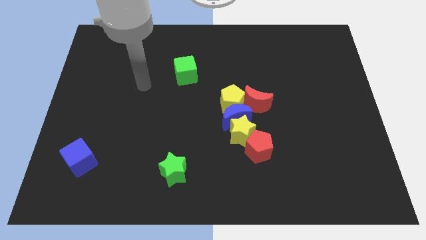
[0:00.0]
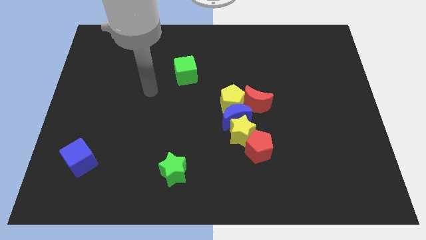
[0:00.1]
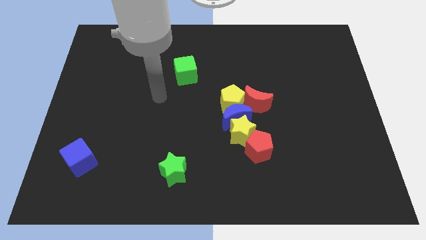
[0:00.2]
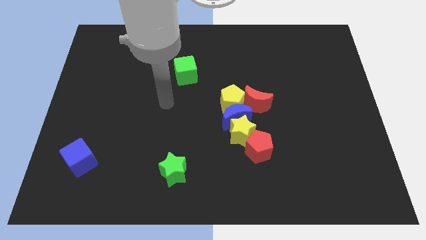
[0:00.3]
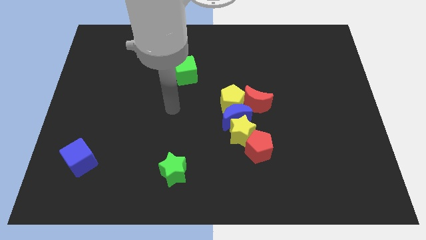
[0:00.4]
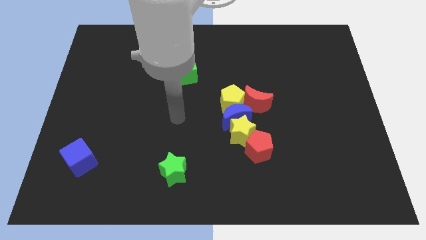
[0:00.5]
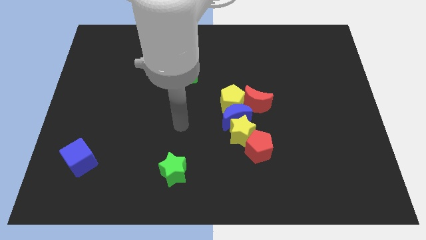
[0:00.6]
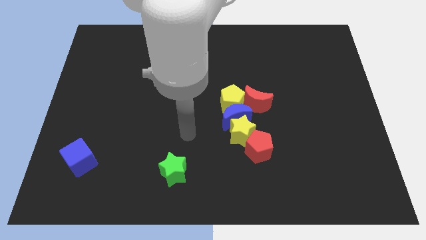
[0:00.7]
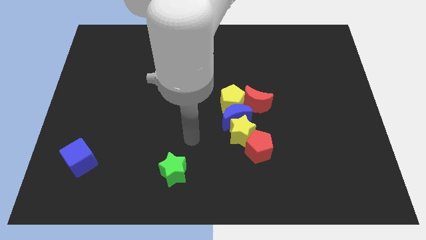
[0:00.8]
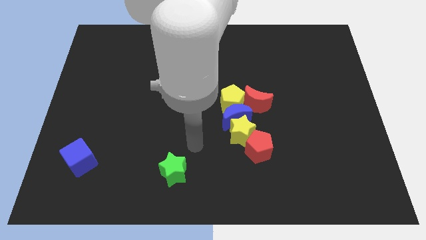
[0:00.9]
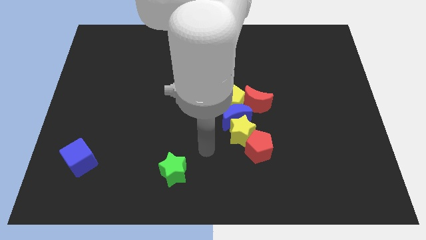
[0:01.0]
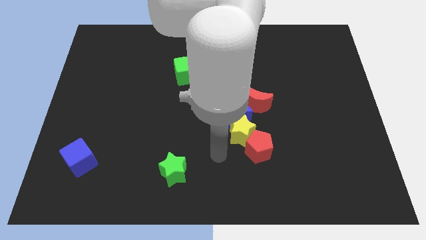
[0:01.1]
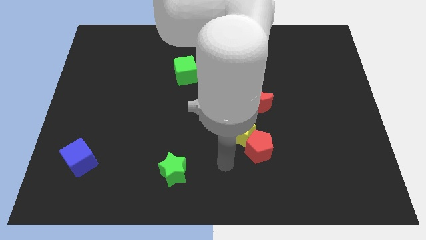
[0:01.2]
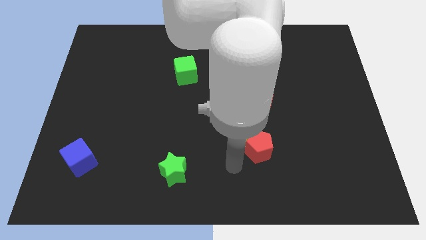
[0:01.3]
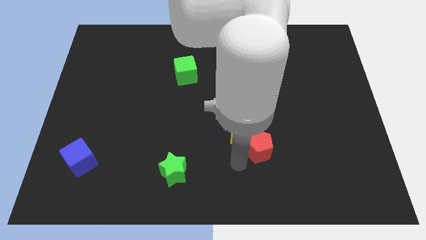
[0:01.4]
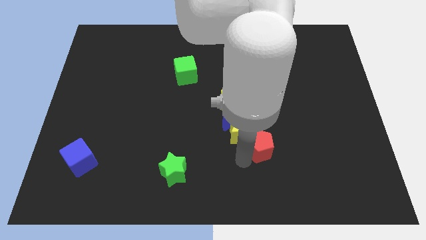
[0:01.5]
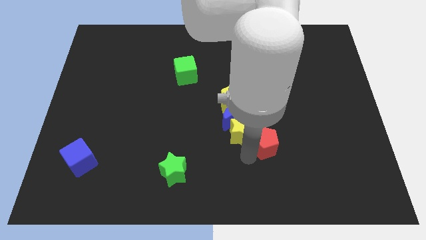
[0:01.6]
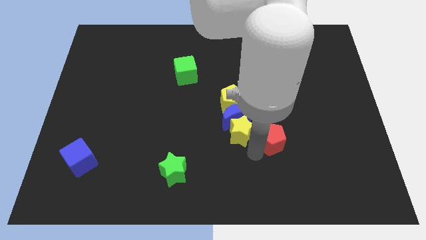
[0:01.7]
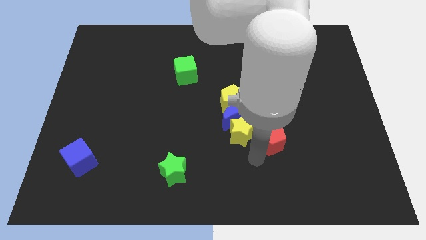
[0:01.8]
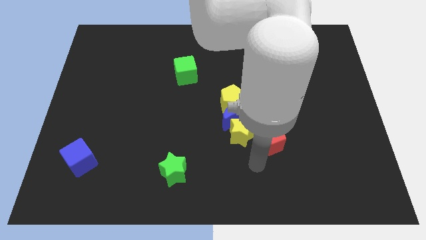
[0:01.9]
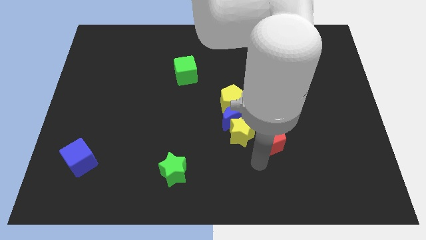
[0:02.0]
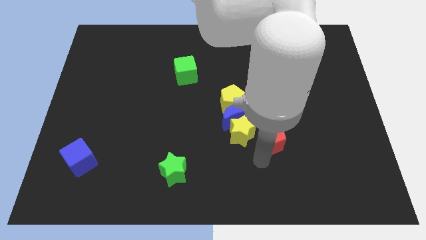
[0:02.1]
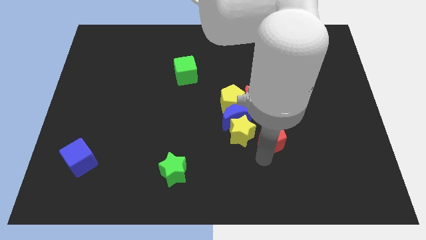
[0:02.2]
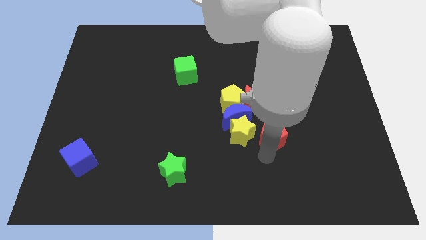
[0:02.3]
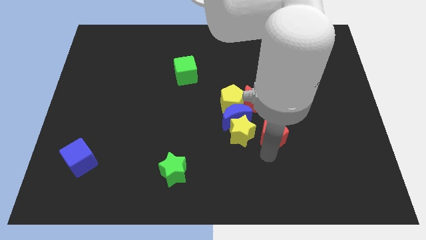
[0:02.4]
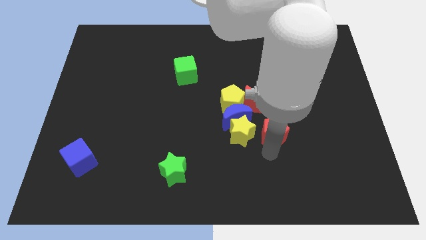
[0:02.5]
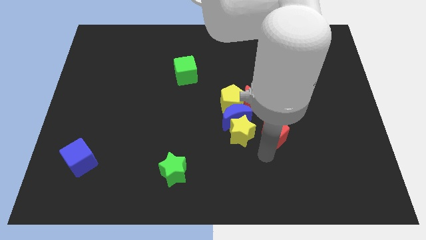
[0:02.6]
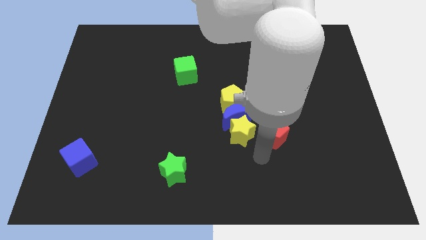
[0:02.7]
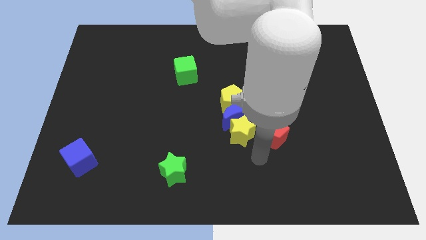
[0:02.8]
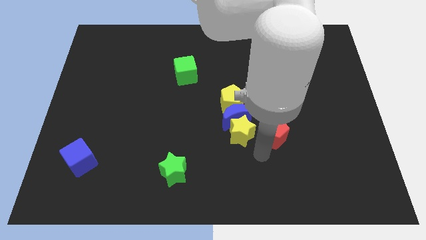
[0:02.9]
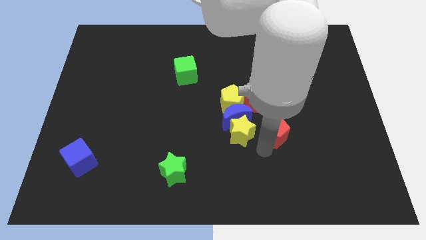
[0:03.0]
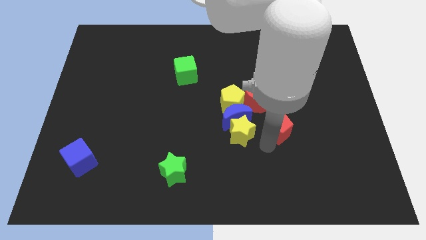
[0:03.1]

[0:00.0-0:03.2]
slide the red pentagon upwards and then to the right a bit

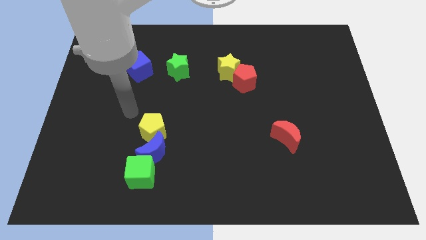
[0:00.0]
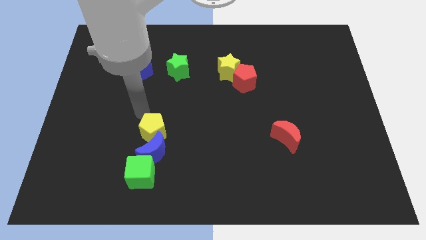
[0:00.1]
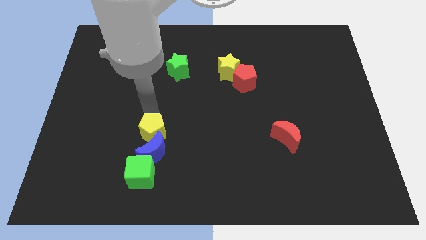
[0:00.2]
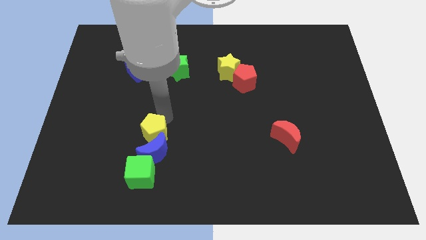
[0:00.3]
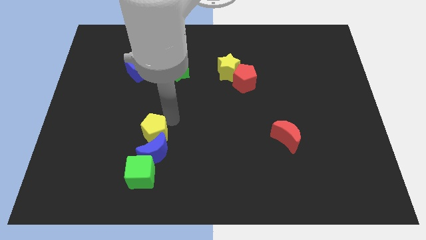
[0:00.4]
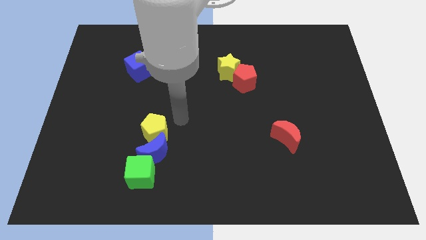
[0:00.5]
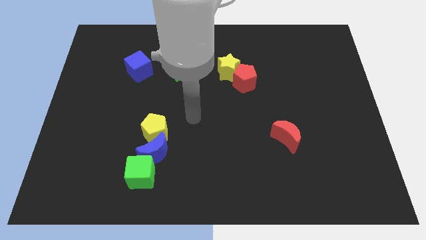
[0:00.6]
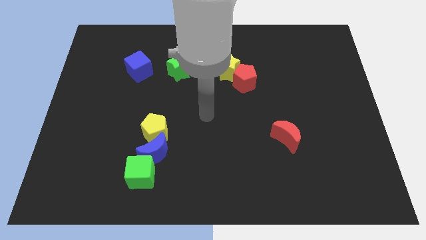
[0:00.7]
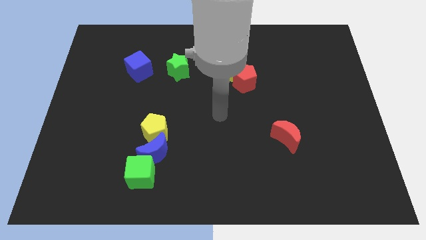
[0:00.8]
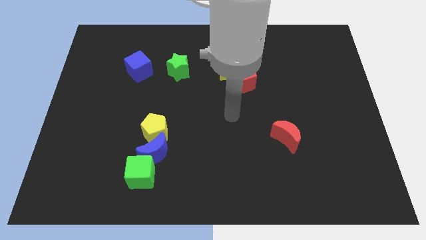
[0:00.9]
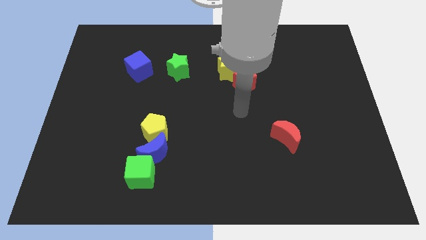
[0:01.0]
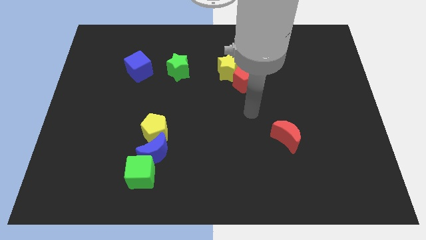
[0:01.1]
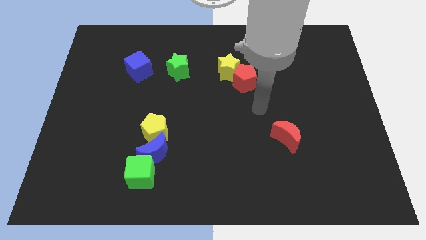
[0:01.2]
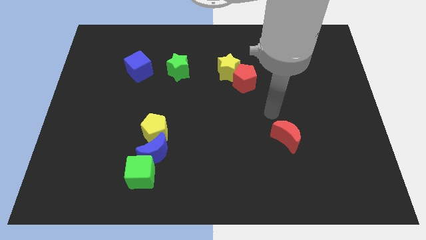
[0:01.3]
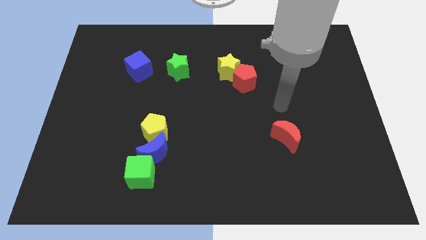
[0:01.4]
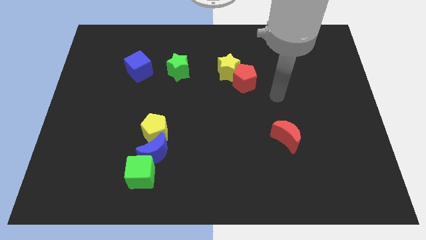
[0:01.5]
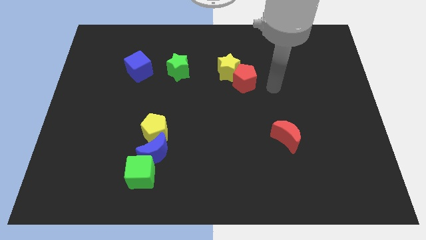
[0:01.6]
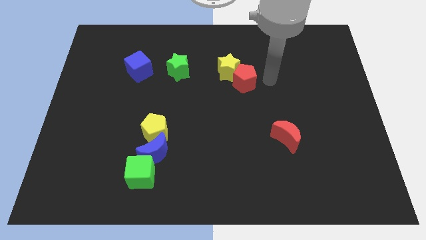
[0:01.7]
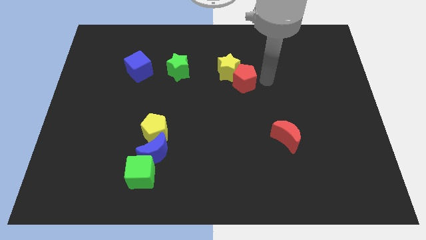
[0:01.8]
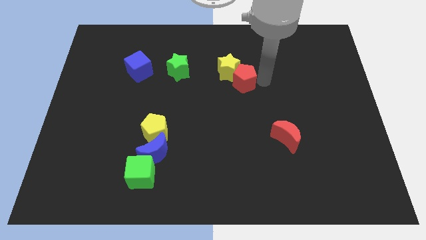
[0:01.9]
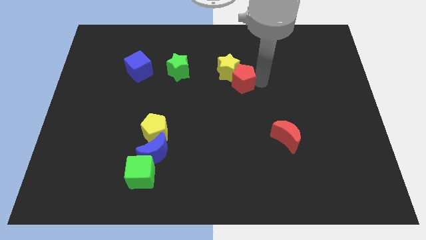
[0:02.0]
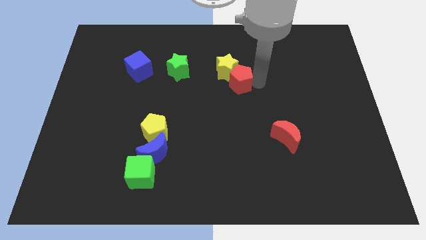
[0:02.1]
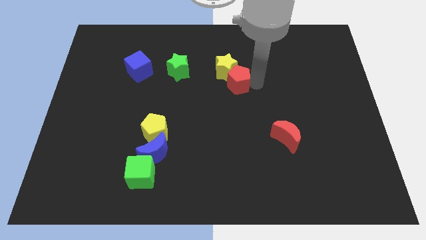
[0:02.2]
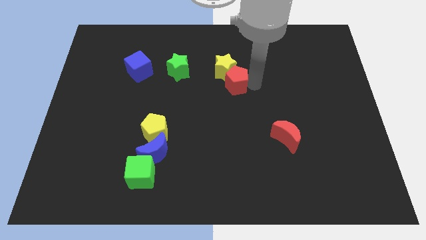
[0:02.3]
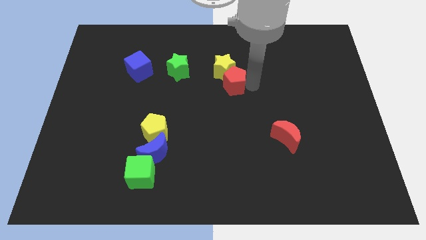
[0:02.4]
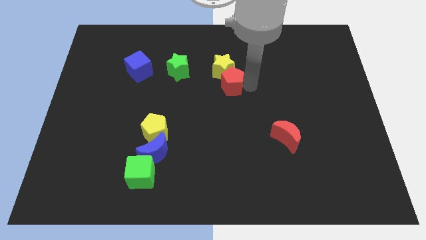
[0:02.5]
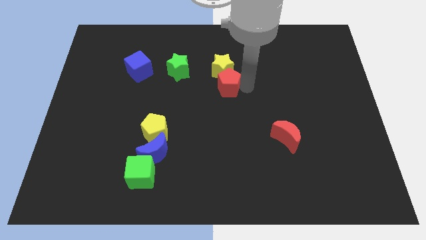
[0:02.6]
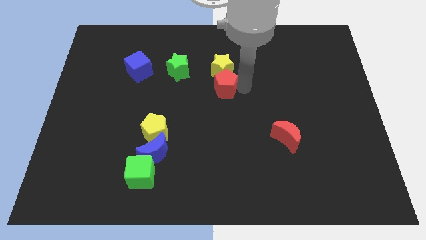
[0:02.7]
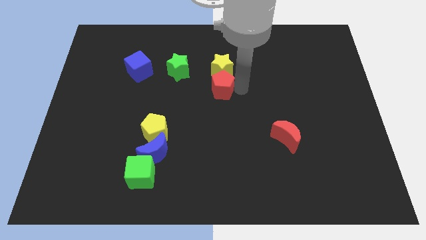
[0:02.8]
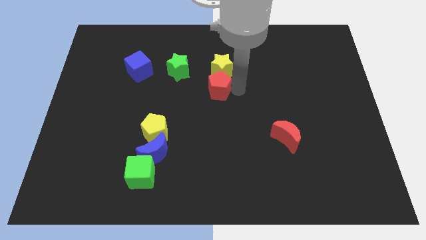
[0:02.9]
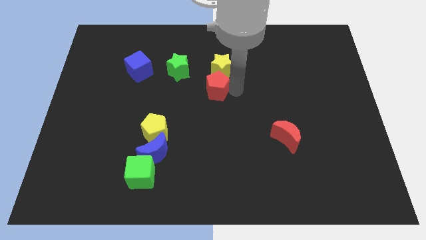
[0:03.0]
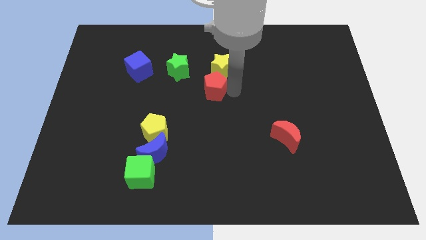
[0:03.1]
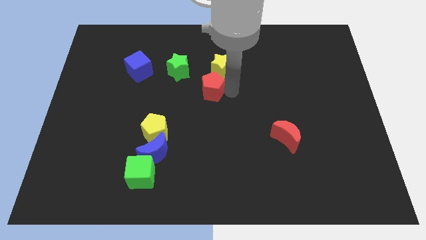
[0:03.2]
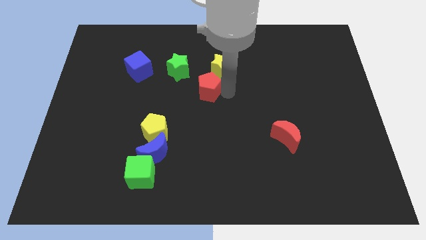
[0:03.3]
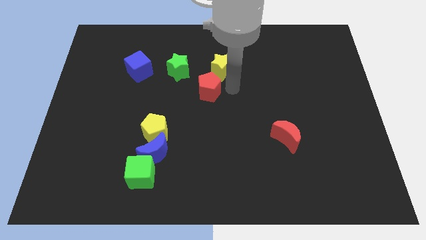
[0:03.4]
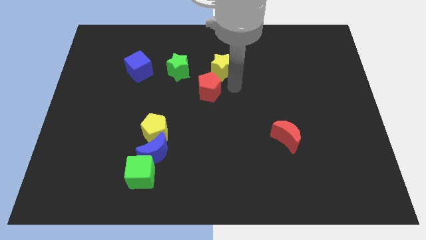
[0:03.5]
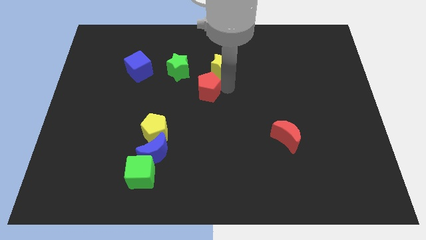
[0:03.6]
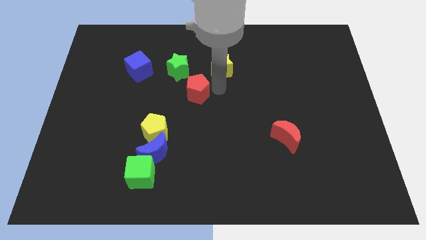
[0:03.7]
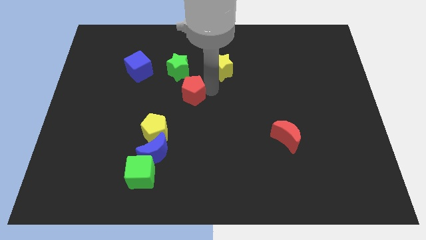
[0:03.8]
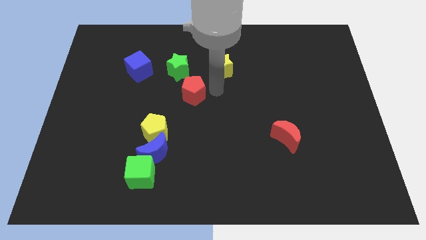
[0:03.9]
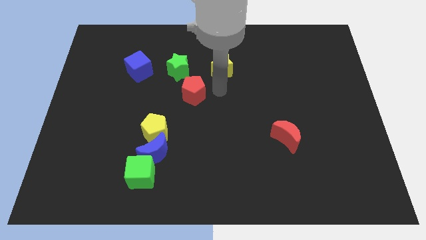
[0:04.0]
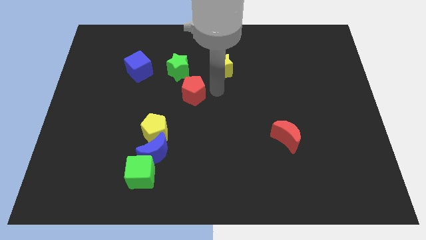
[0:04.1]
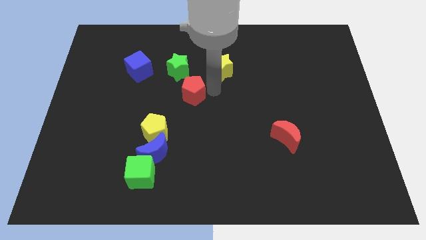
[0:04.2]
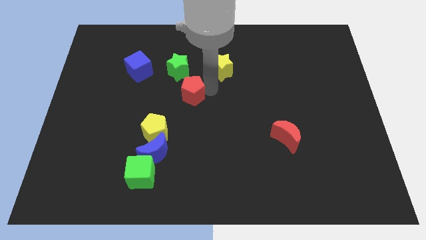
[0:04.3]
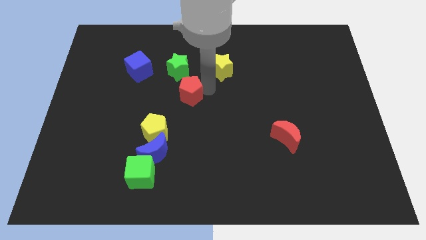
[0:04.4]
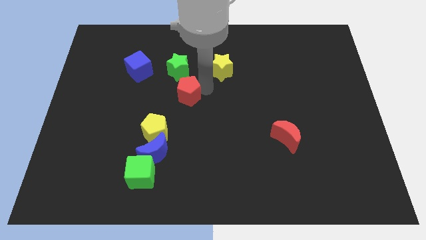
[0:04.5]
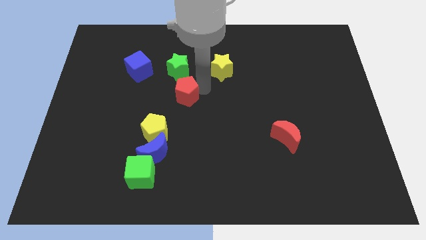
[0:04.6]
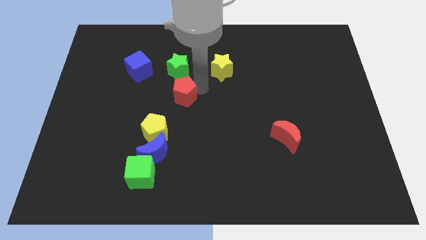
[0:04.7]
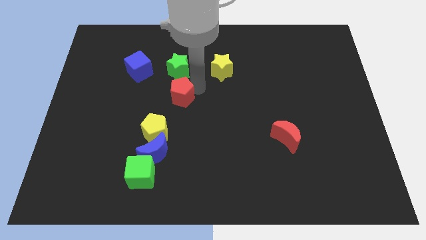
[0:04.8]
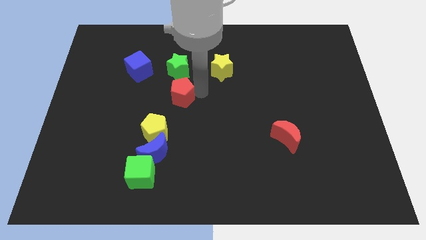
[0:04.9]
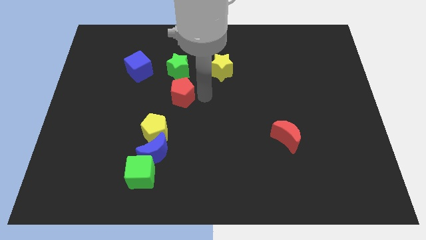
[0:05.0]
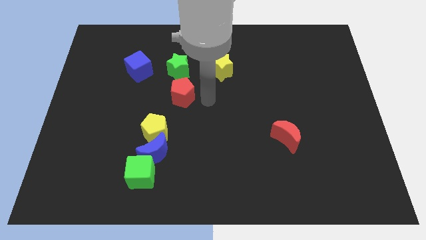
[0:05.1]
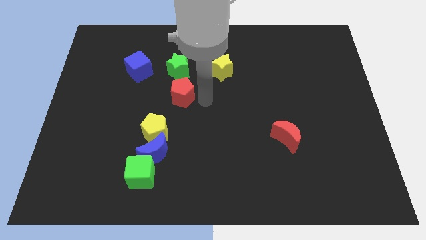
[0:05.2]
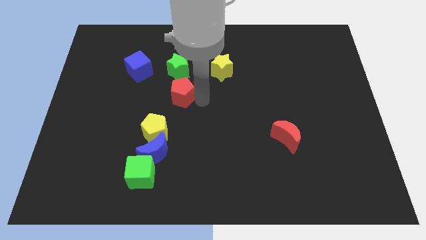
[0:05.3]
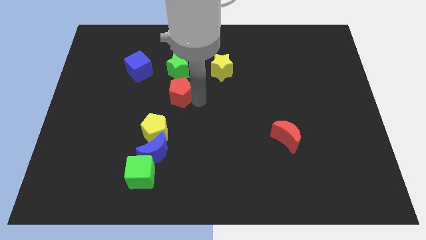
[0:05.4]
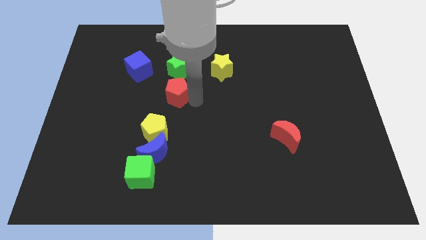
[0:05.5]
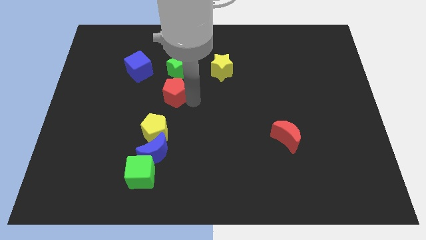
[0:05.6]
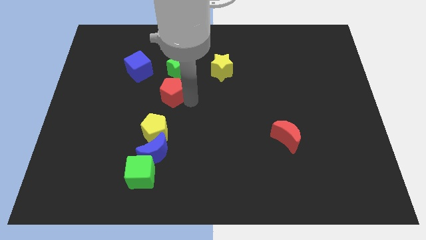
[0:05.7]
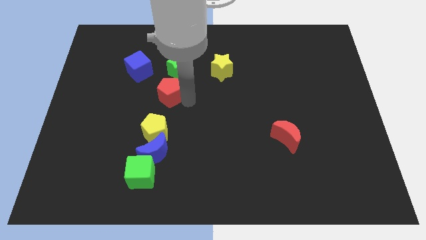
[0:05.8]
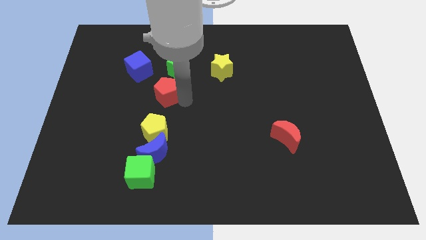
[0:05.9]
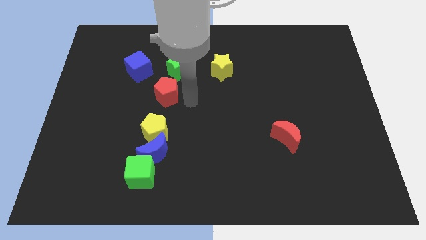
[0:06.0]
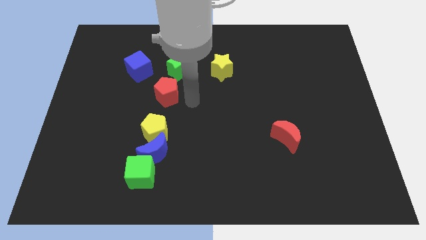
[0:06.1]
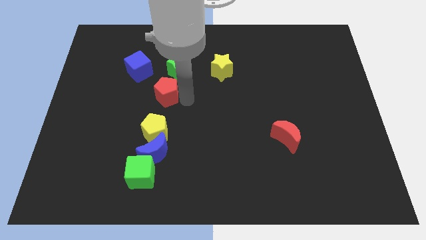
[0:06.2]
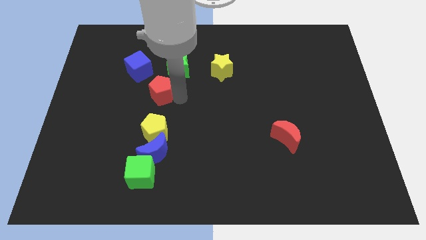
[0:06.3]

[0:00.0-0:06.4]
move the red pentagon left
